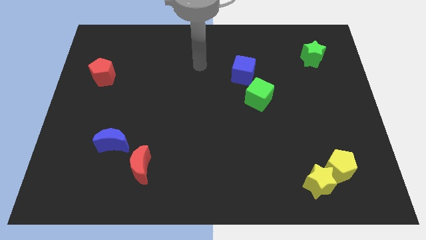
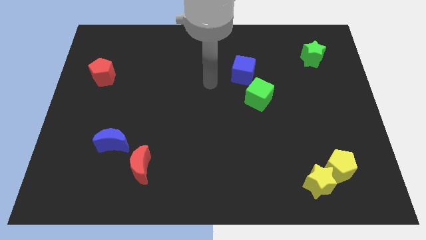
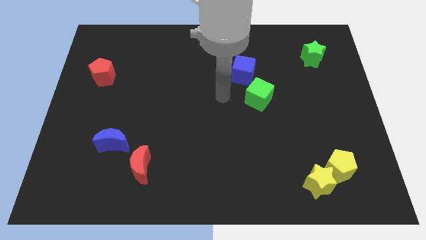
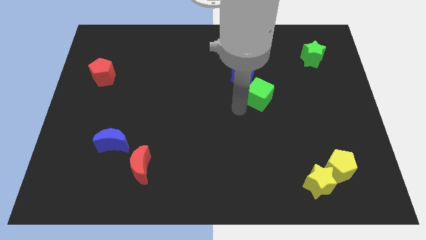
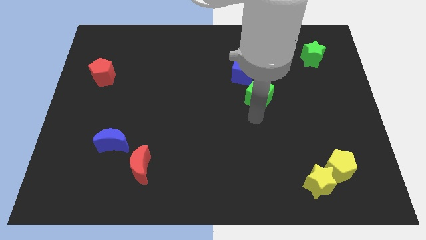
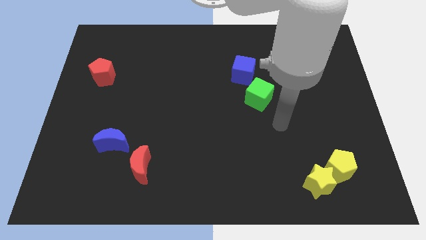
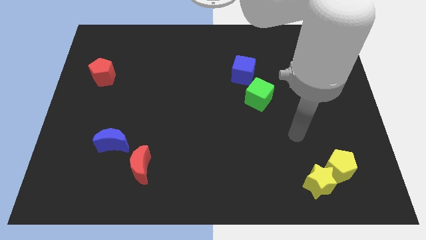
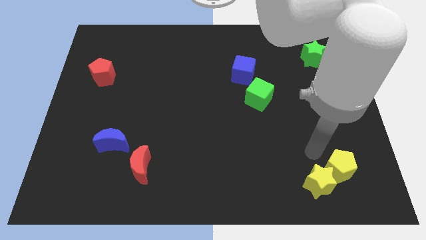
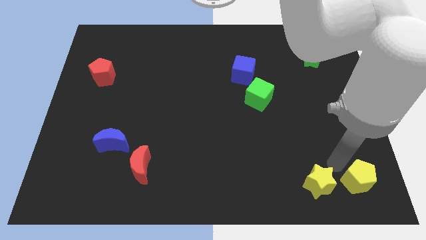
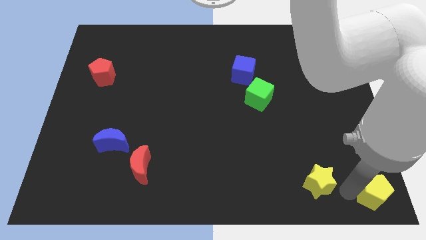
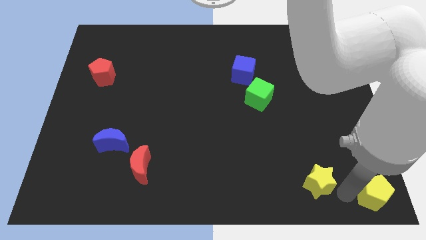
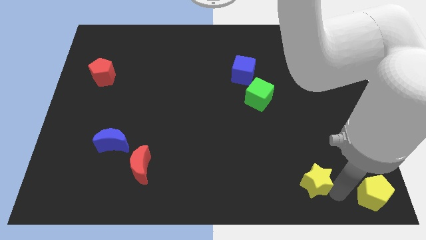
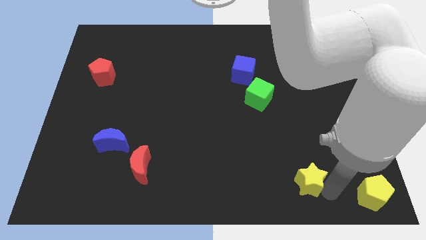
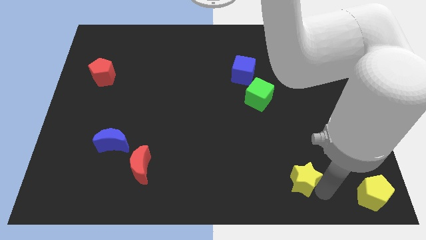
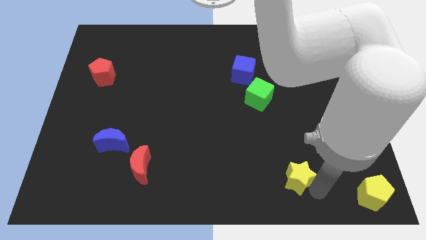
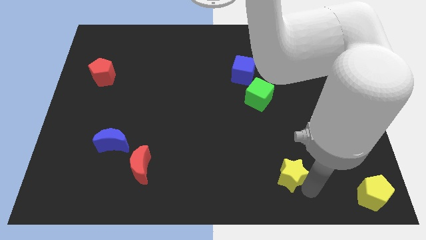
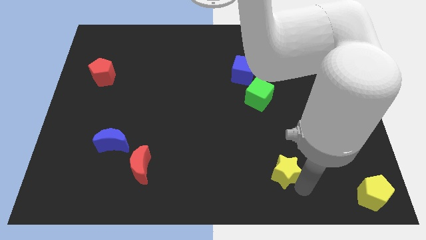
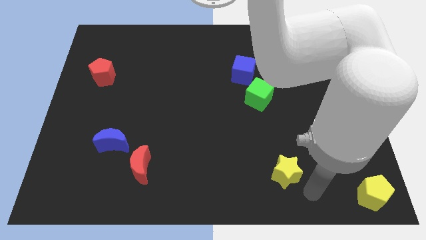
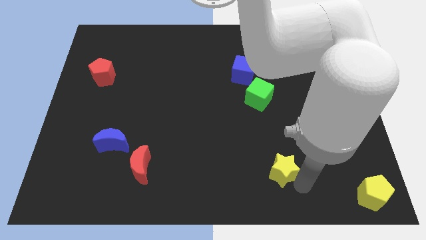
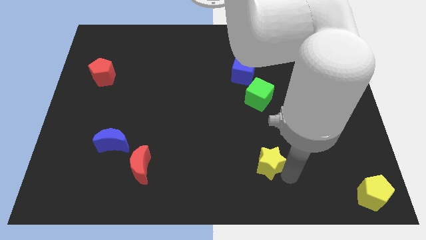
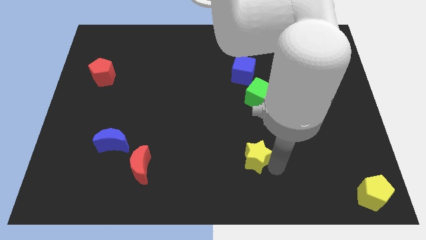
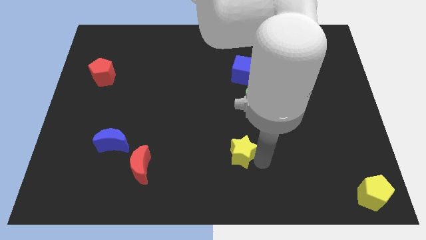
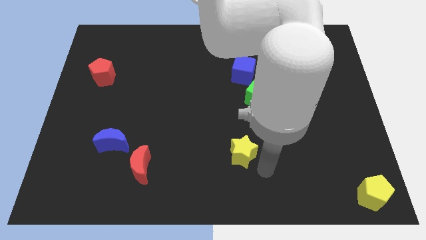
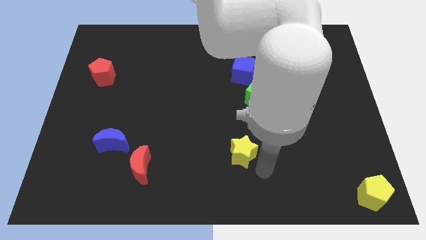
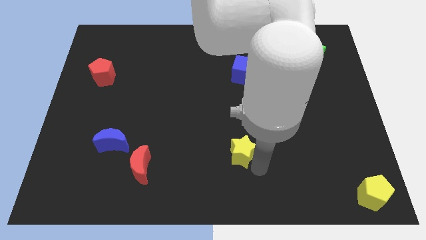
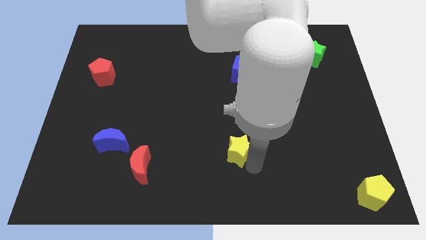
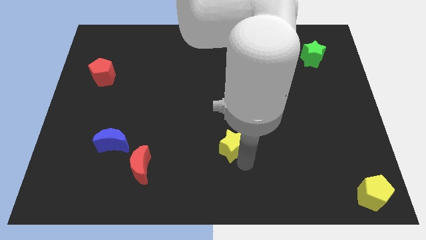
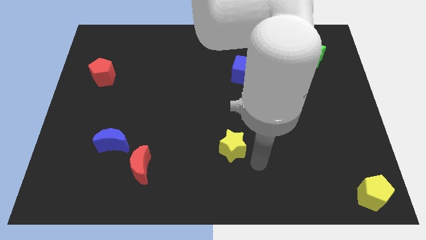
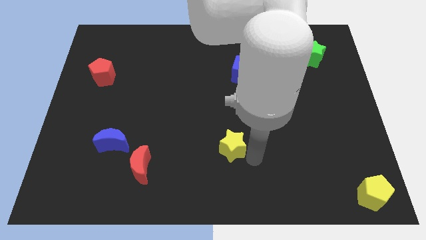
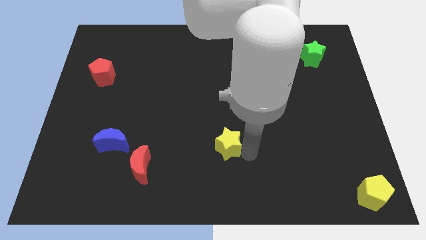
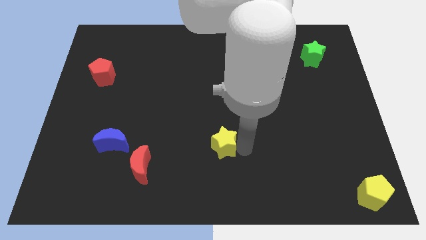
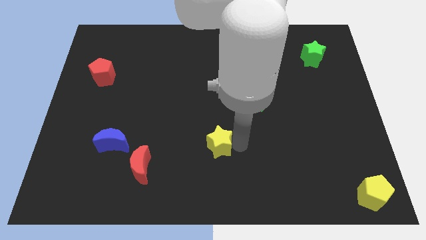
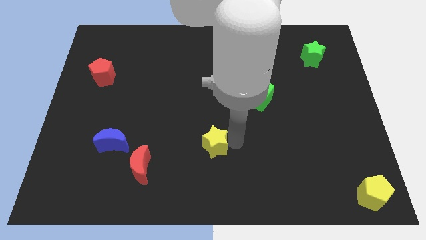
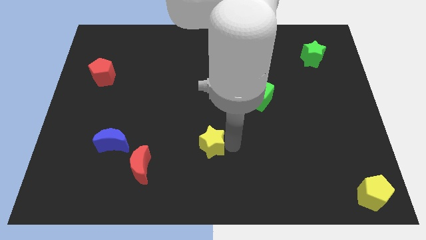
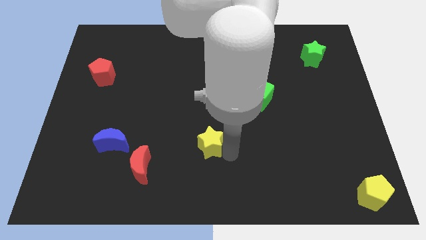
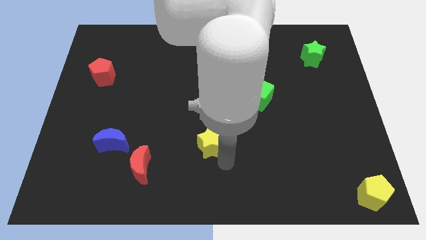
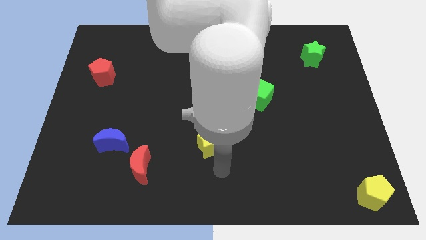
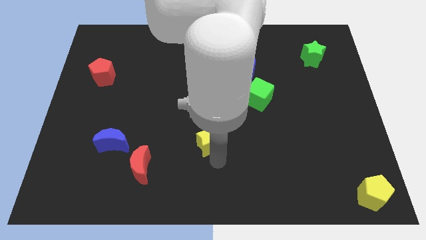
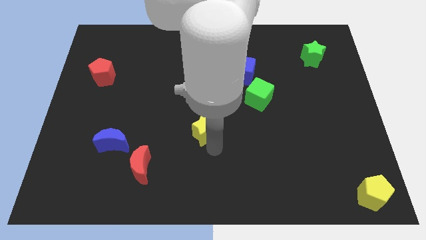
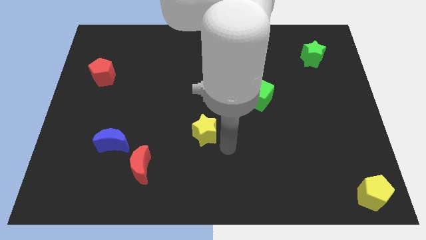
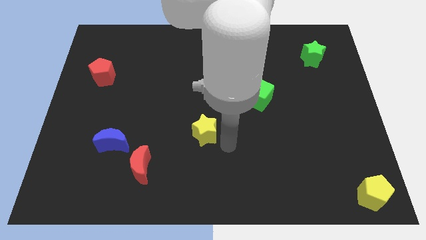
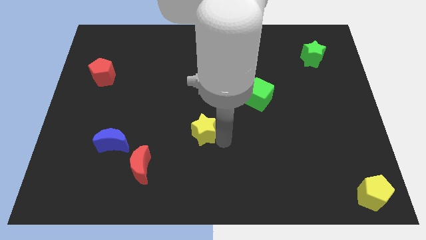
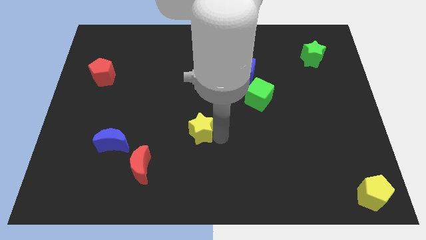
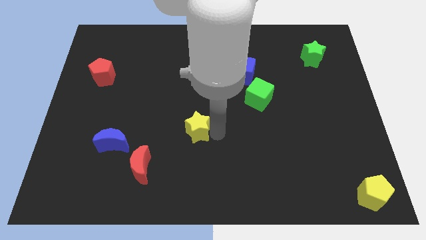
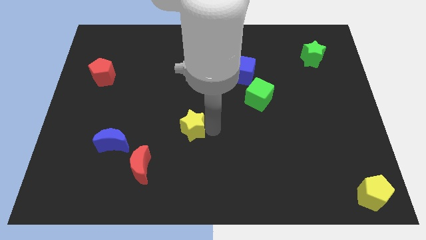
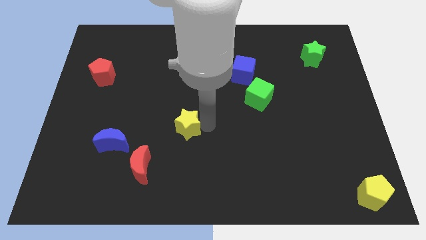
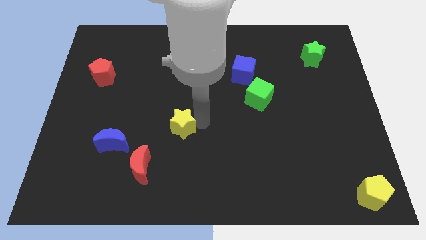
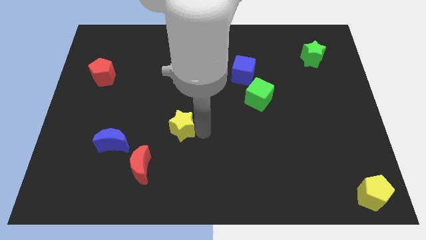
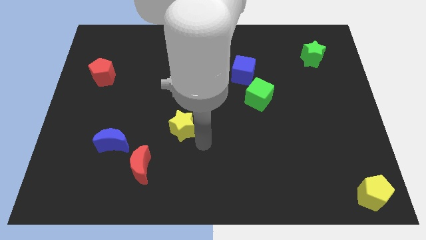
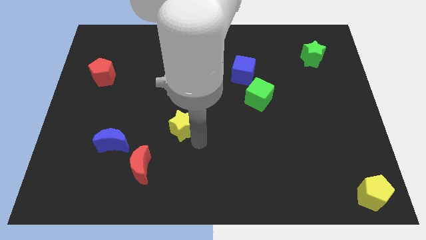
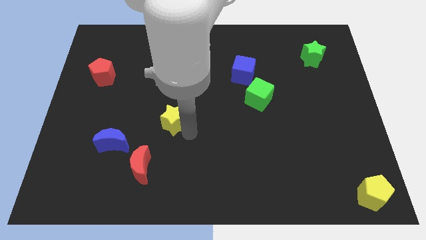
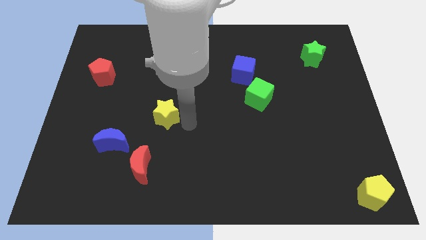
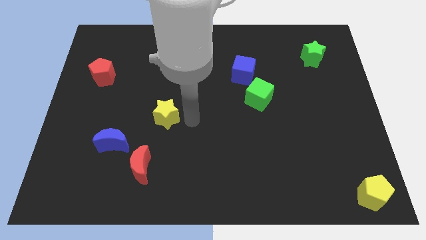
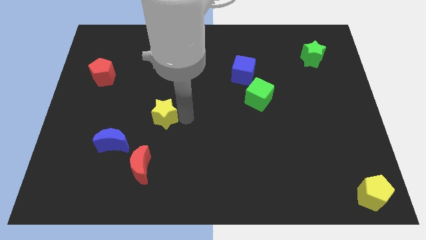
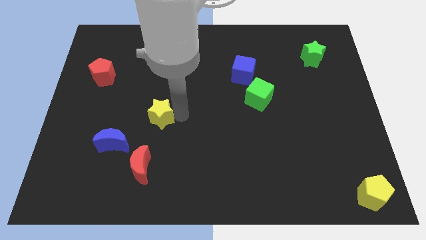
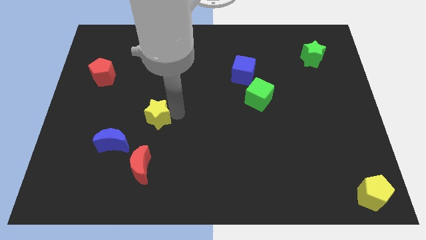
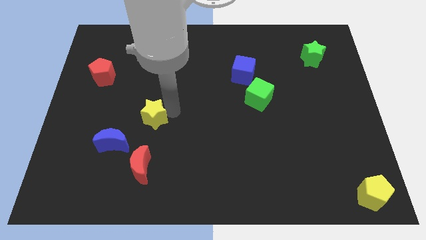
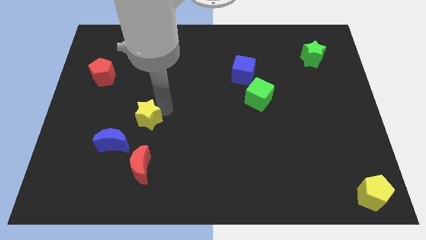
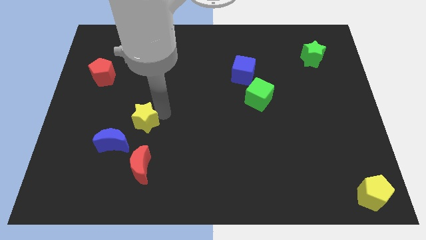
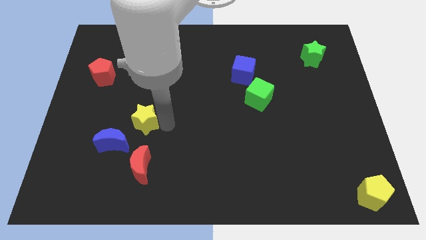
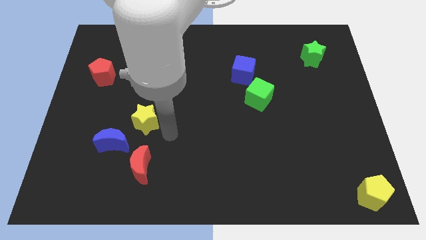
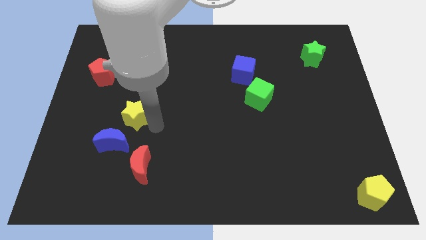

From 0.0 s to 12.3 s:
move the yellow star to the top side of the blue moon

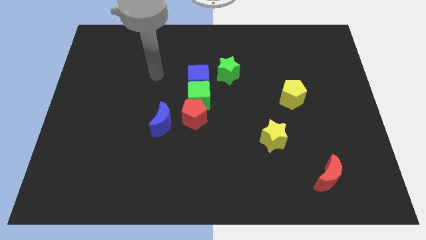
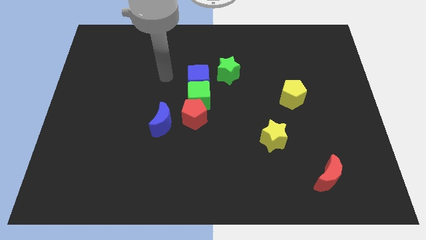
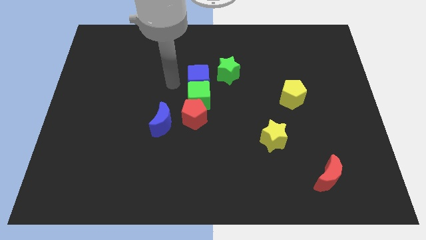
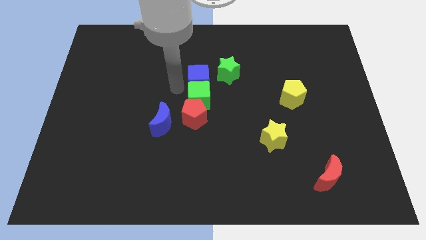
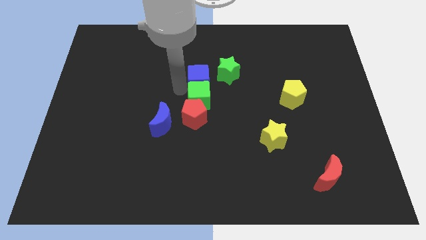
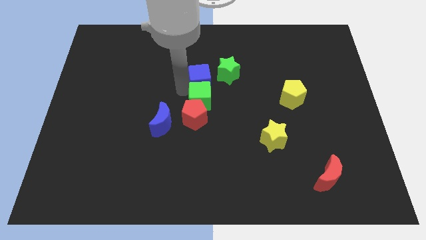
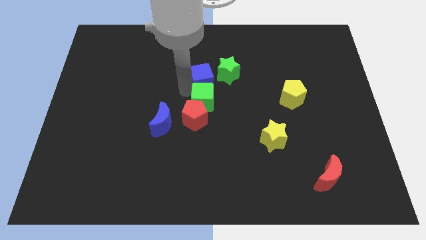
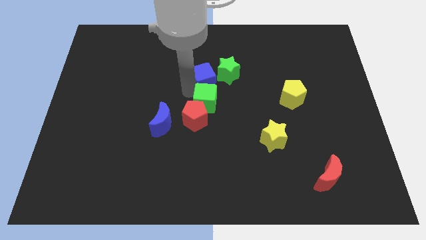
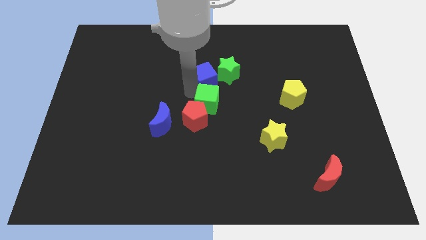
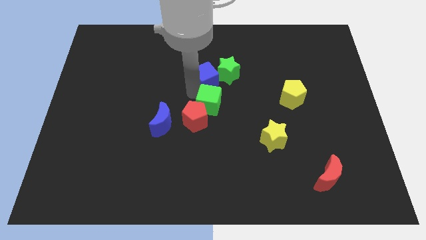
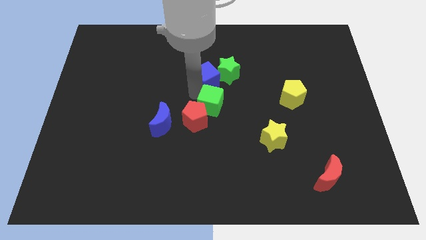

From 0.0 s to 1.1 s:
put the green cube to the right of the red pentagon
